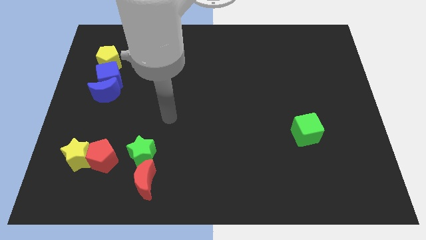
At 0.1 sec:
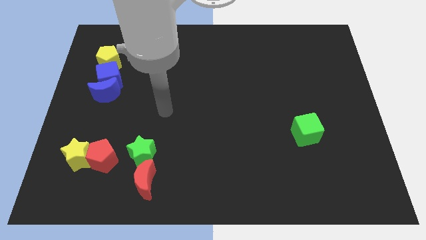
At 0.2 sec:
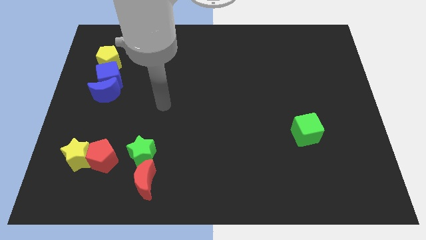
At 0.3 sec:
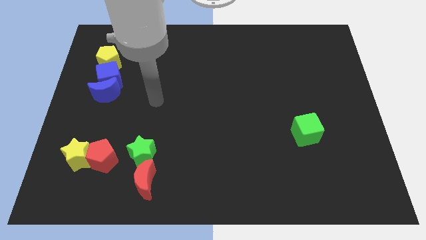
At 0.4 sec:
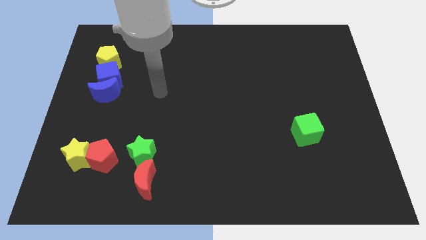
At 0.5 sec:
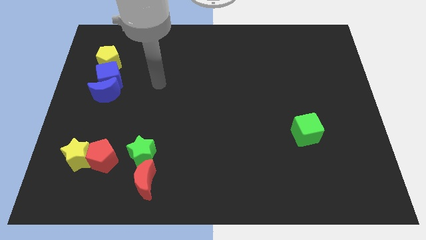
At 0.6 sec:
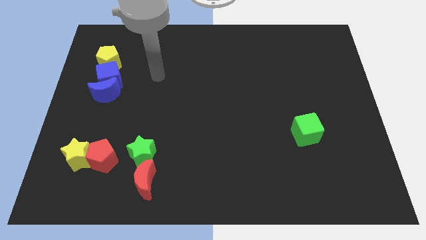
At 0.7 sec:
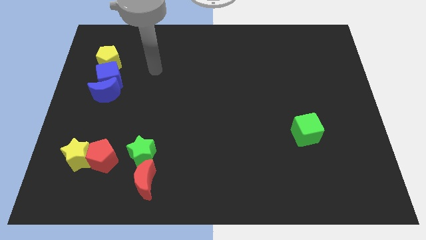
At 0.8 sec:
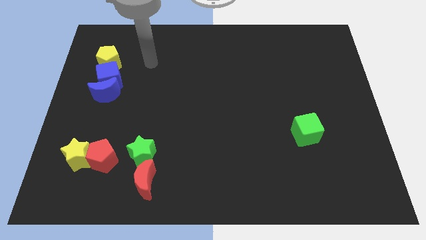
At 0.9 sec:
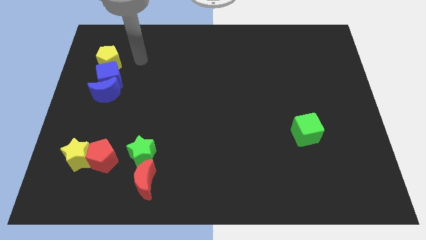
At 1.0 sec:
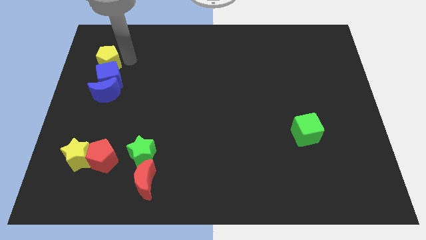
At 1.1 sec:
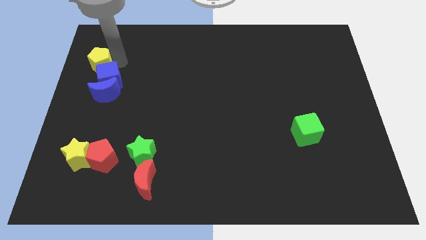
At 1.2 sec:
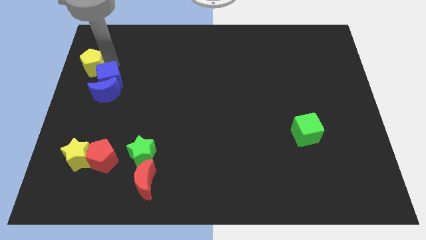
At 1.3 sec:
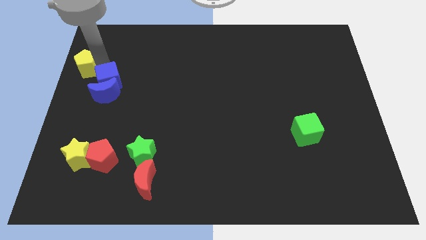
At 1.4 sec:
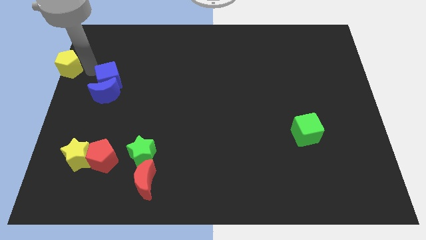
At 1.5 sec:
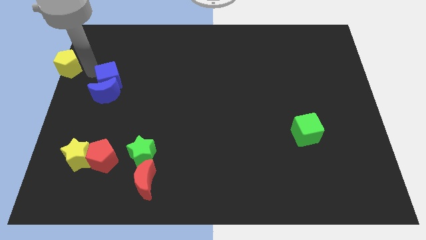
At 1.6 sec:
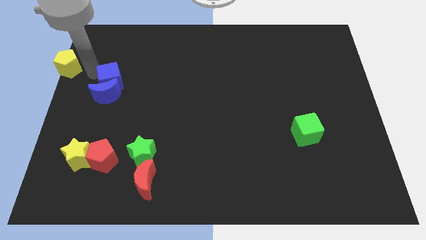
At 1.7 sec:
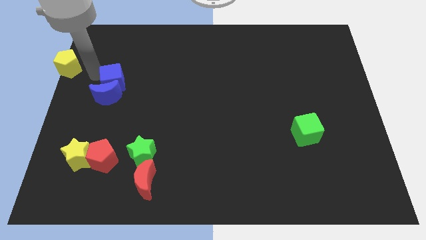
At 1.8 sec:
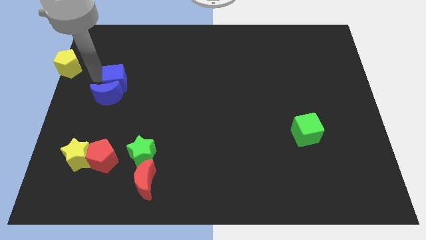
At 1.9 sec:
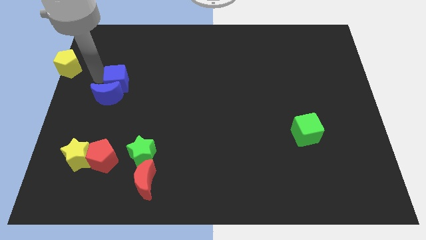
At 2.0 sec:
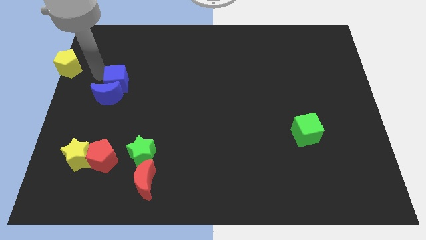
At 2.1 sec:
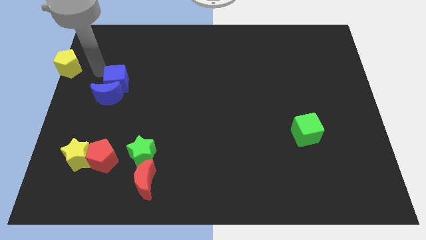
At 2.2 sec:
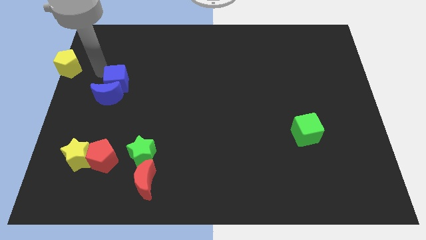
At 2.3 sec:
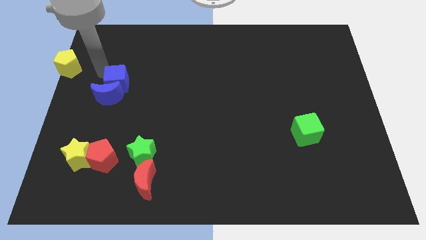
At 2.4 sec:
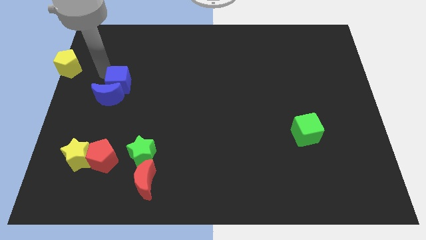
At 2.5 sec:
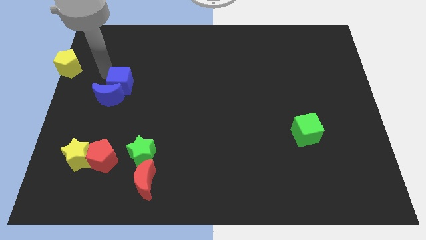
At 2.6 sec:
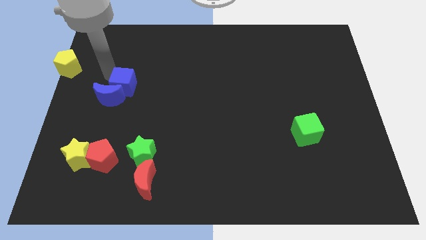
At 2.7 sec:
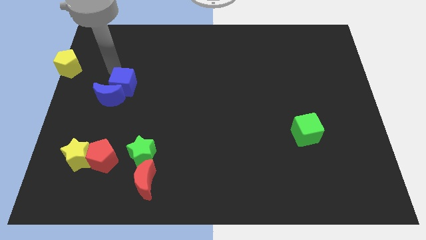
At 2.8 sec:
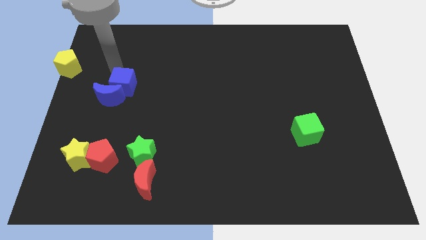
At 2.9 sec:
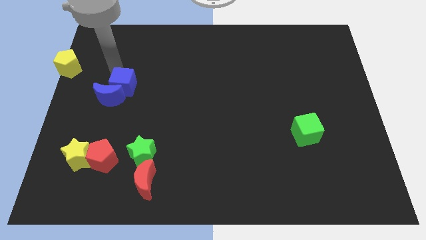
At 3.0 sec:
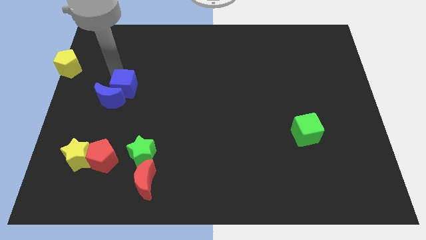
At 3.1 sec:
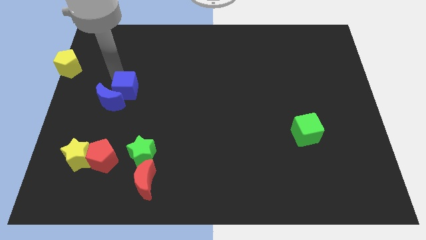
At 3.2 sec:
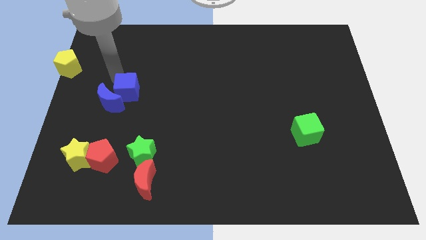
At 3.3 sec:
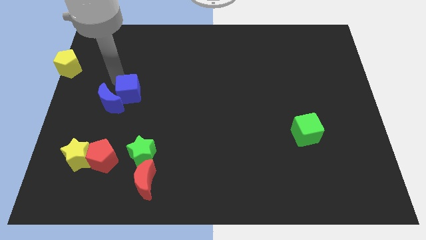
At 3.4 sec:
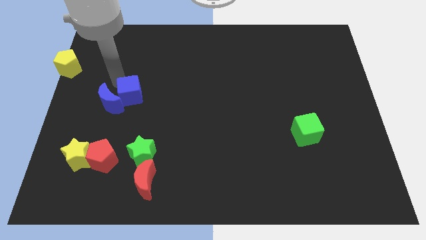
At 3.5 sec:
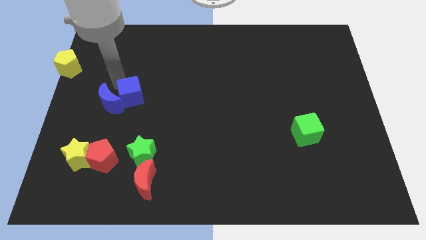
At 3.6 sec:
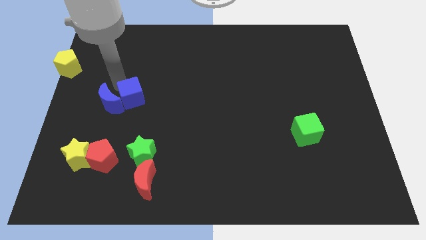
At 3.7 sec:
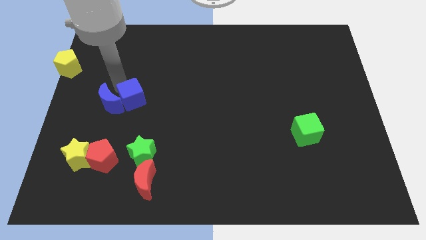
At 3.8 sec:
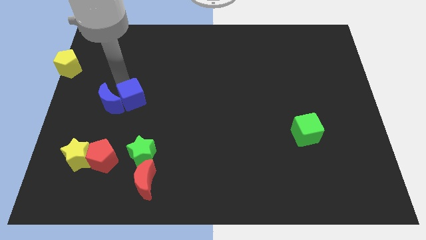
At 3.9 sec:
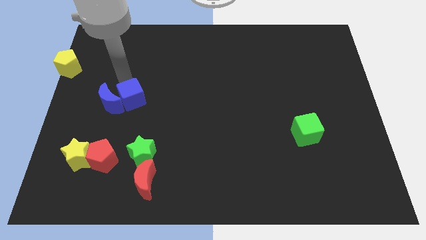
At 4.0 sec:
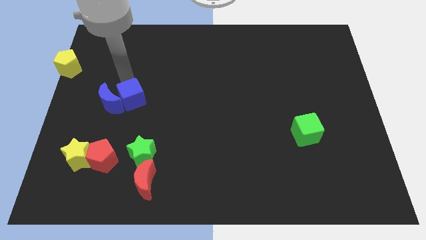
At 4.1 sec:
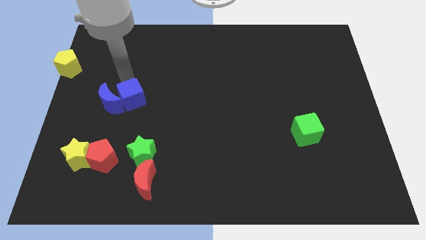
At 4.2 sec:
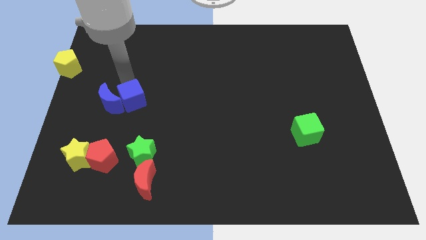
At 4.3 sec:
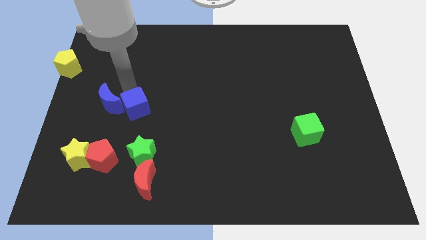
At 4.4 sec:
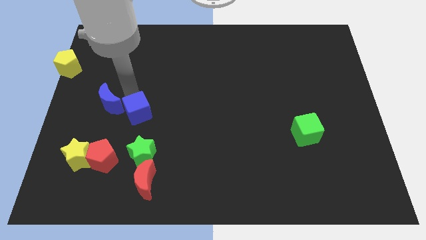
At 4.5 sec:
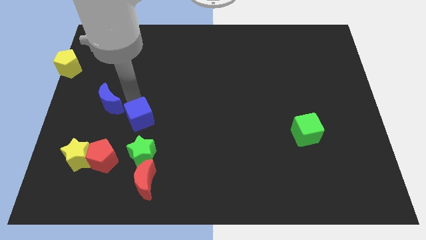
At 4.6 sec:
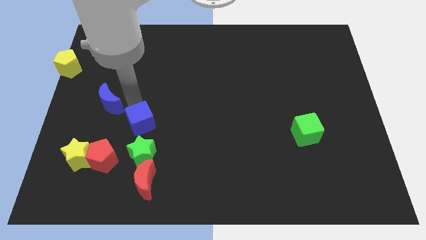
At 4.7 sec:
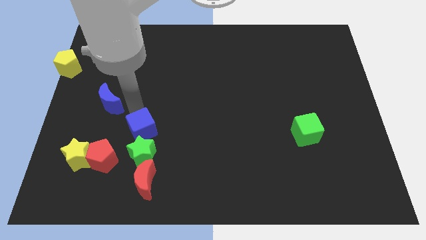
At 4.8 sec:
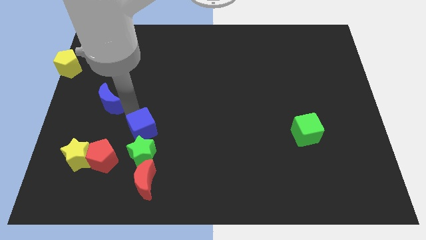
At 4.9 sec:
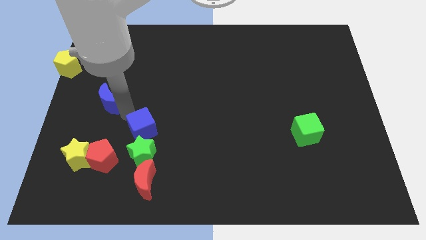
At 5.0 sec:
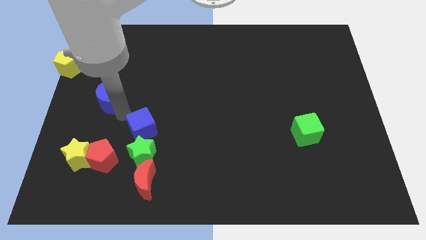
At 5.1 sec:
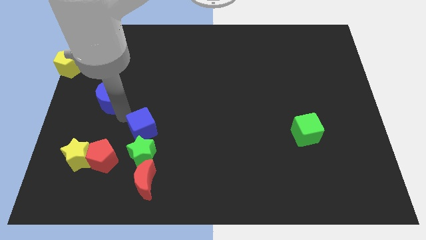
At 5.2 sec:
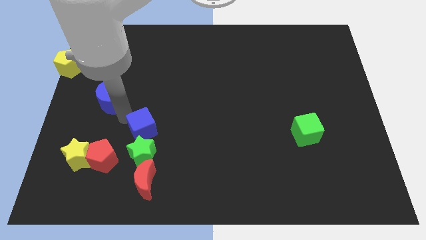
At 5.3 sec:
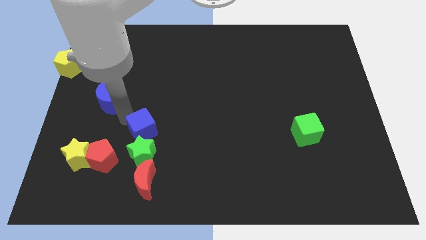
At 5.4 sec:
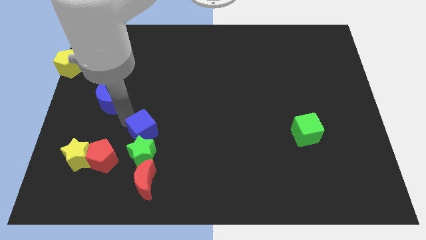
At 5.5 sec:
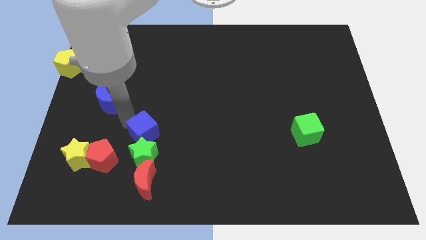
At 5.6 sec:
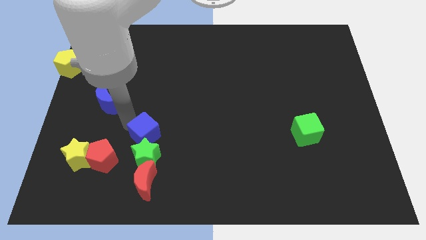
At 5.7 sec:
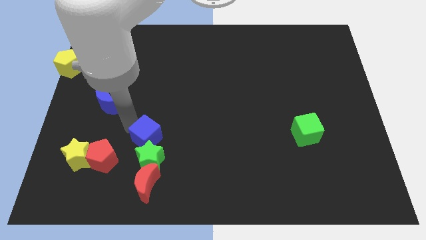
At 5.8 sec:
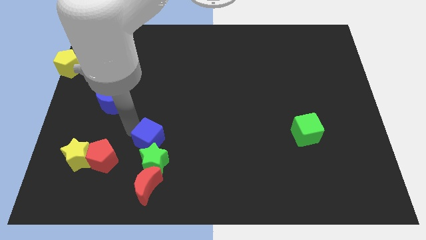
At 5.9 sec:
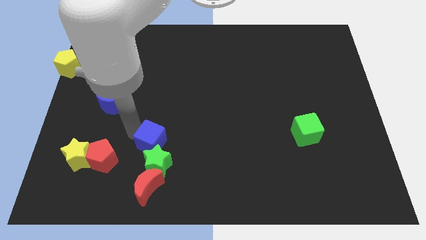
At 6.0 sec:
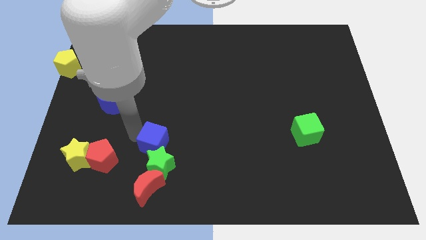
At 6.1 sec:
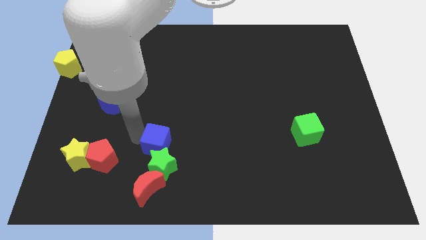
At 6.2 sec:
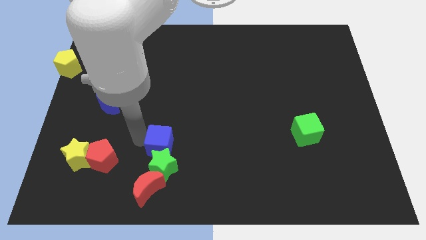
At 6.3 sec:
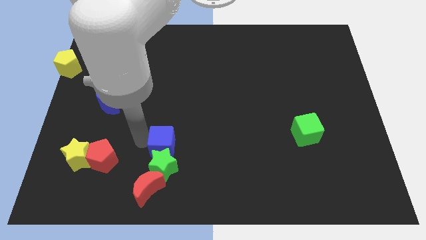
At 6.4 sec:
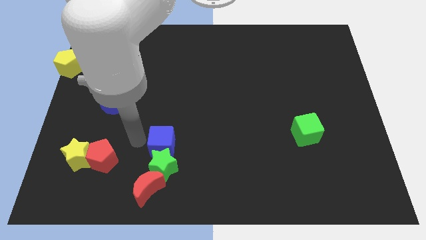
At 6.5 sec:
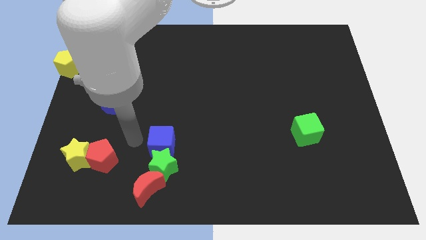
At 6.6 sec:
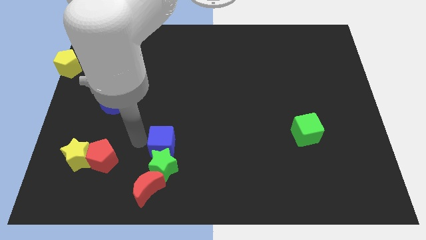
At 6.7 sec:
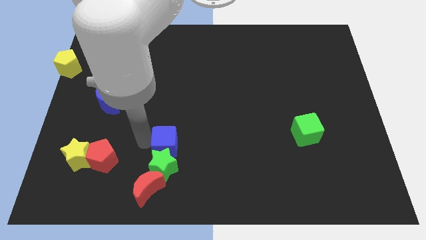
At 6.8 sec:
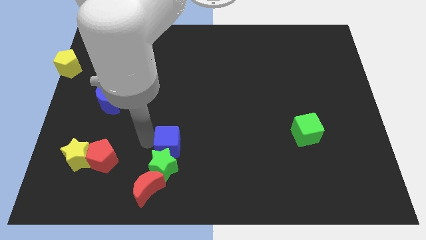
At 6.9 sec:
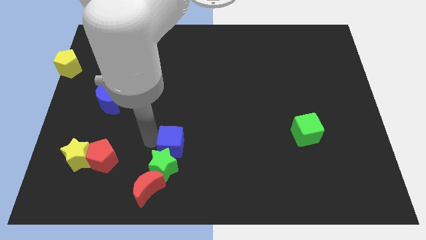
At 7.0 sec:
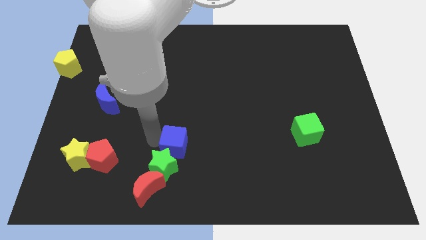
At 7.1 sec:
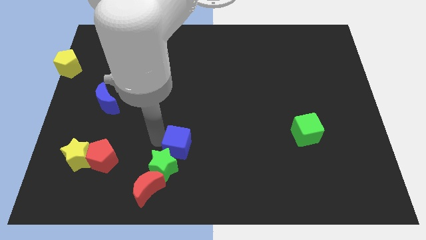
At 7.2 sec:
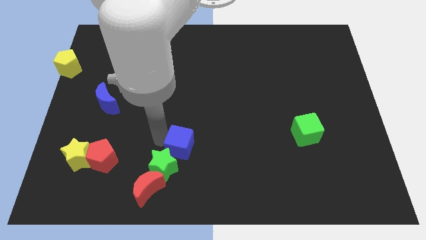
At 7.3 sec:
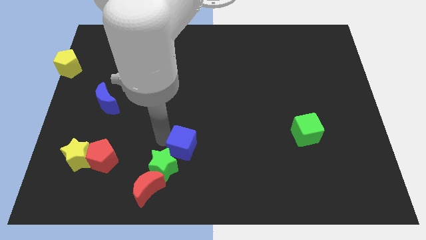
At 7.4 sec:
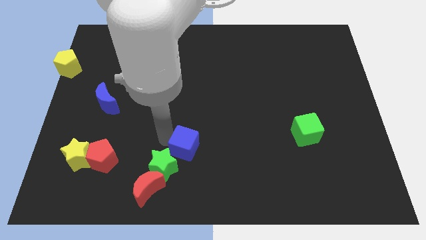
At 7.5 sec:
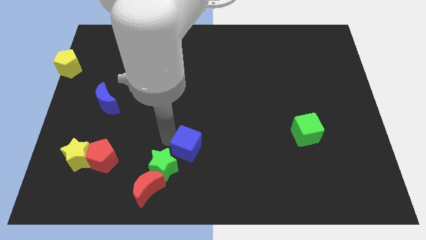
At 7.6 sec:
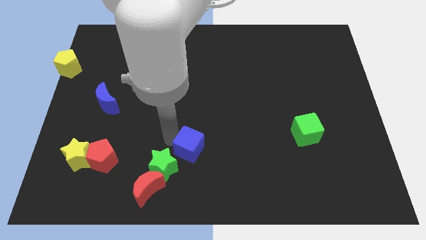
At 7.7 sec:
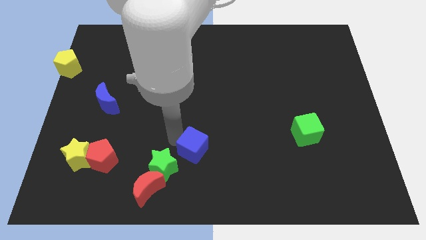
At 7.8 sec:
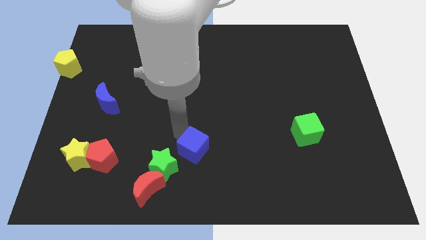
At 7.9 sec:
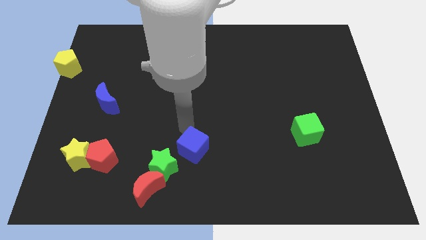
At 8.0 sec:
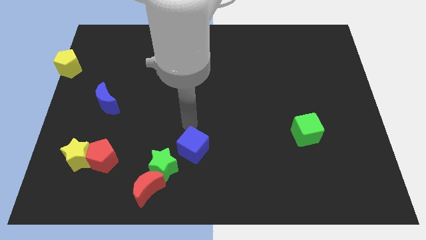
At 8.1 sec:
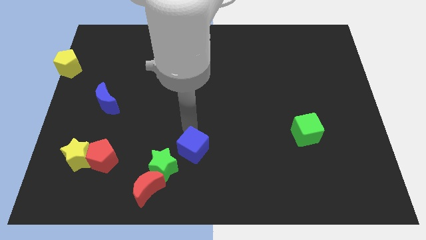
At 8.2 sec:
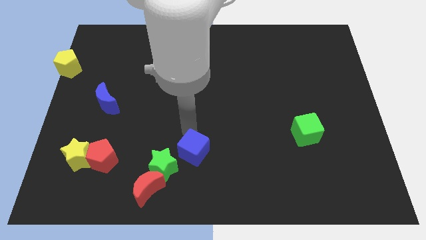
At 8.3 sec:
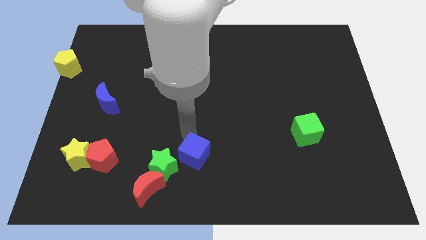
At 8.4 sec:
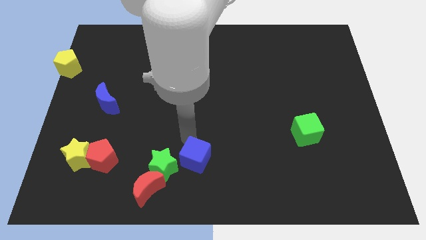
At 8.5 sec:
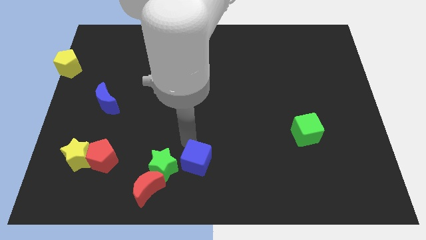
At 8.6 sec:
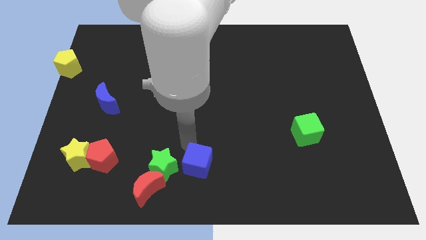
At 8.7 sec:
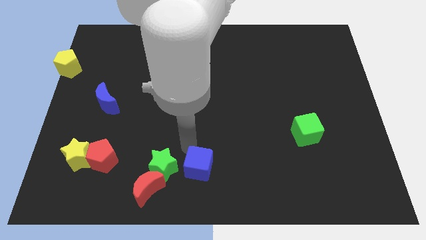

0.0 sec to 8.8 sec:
slide the blue cube to the right side of the red moon
